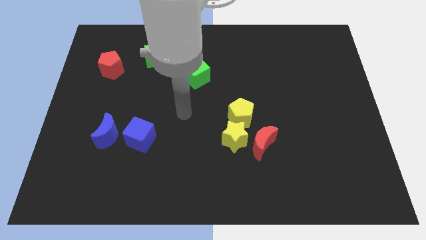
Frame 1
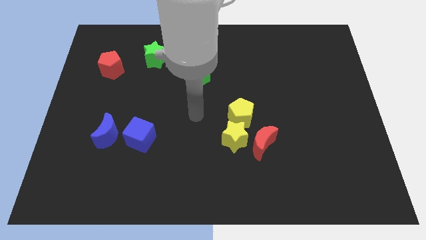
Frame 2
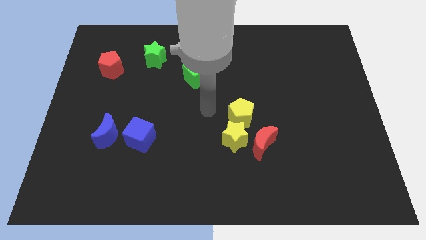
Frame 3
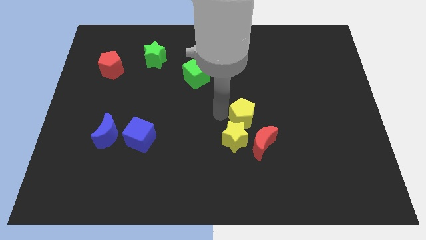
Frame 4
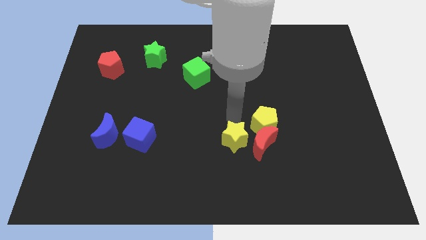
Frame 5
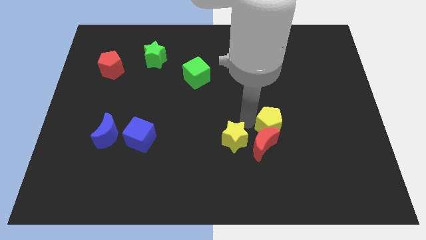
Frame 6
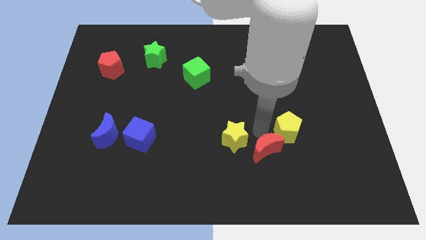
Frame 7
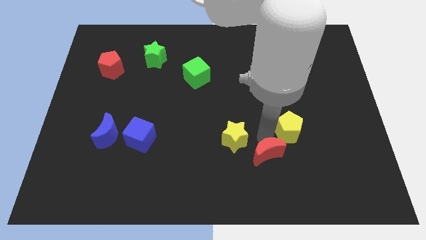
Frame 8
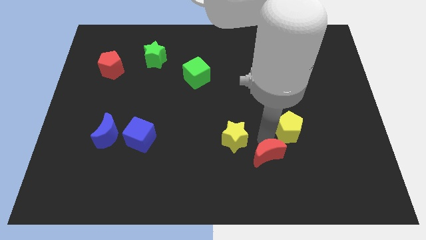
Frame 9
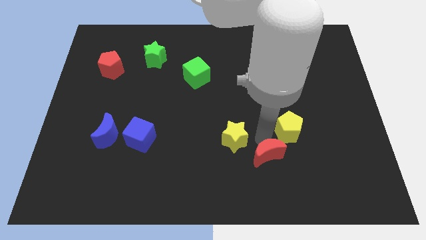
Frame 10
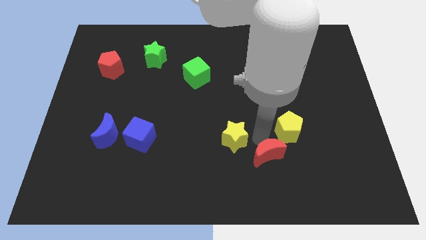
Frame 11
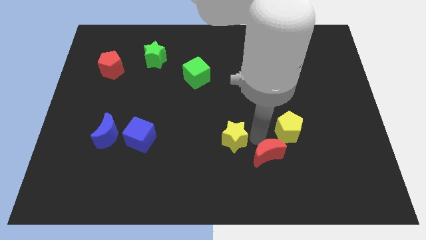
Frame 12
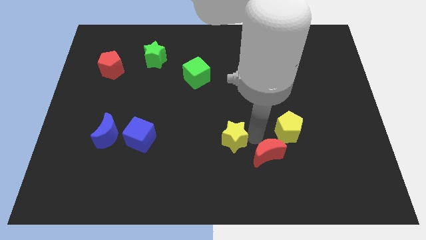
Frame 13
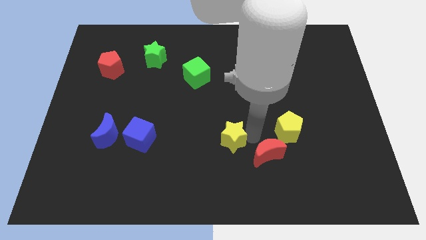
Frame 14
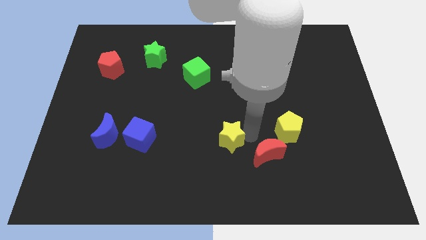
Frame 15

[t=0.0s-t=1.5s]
separate the yellow star from the red moon and yellow pentagon

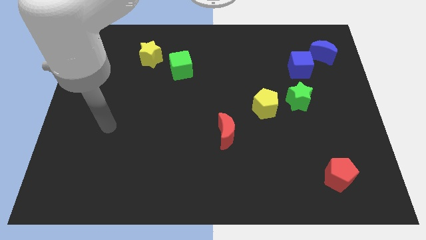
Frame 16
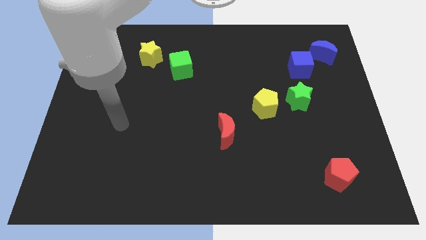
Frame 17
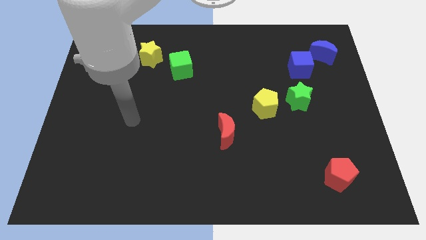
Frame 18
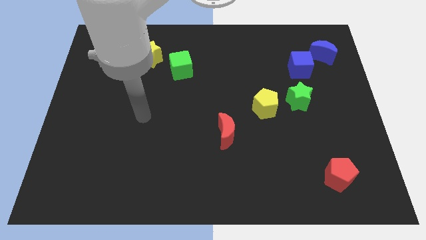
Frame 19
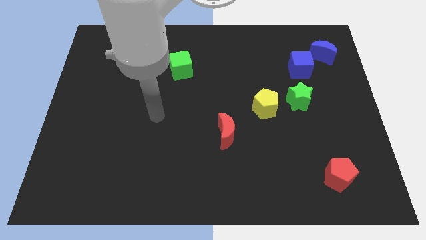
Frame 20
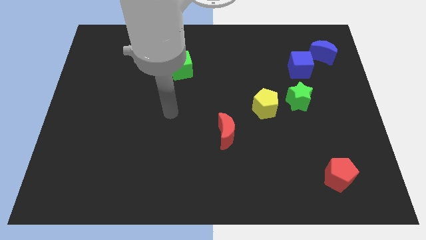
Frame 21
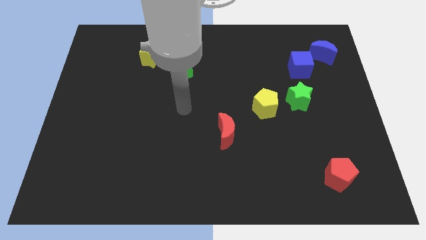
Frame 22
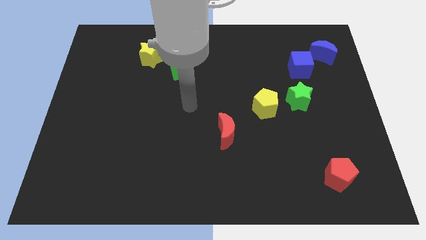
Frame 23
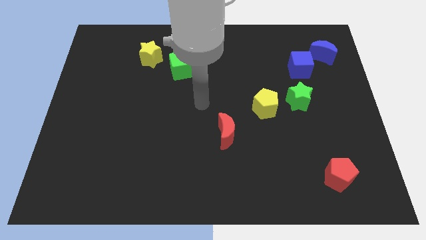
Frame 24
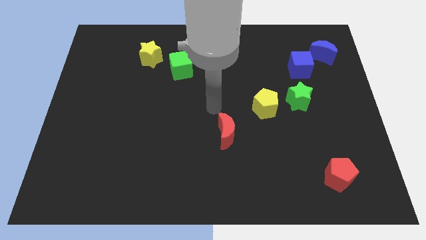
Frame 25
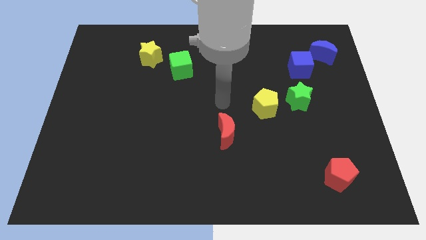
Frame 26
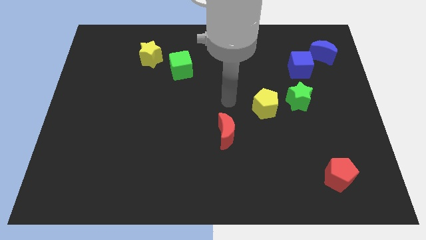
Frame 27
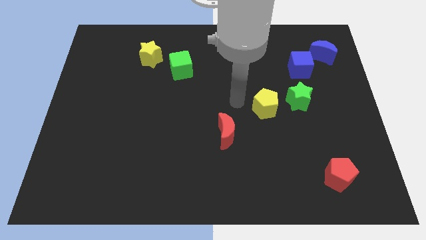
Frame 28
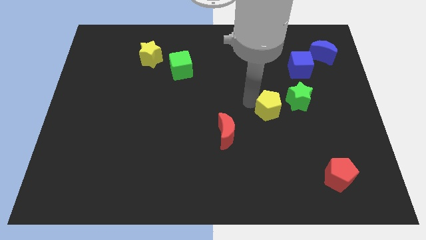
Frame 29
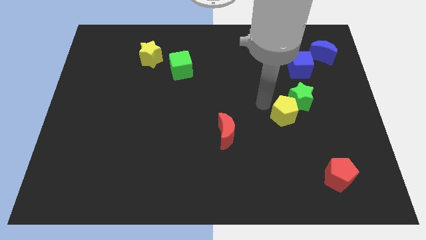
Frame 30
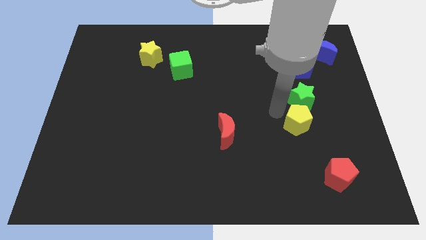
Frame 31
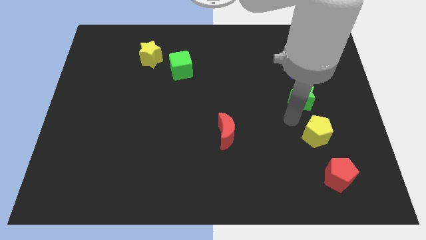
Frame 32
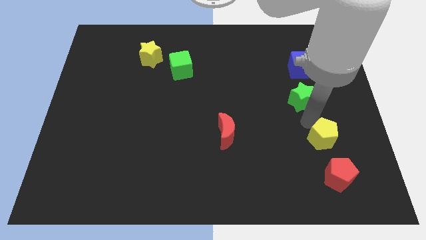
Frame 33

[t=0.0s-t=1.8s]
pull the green star apart from the yellow pentagon

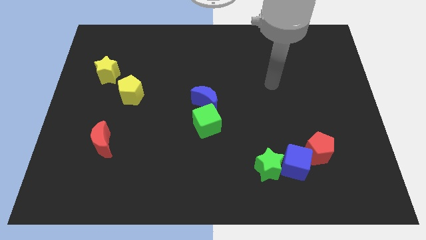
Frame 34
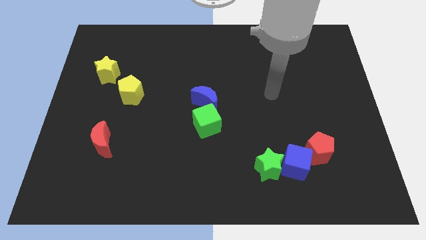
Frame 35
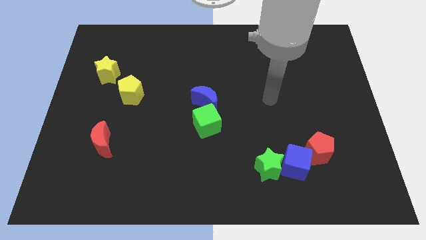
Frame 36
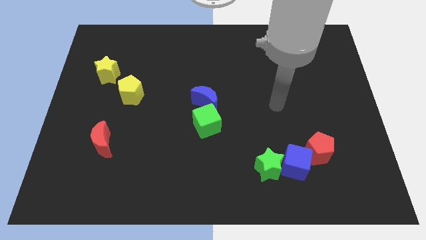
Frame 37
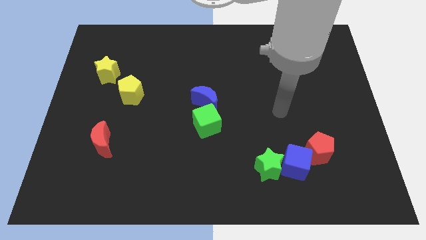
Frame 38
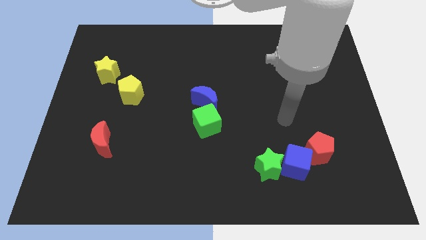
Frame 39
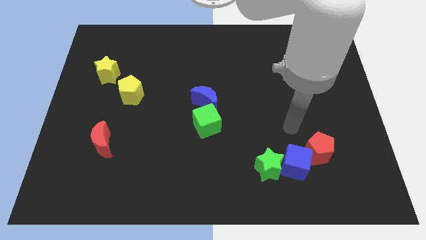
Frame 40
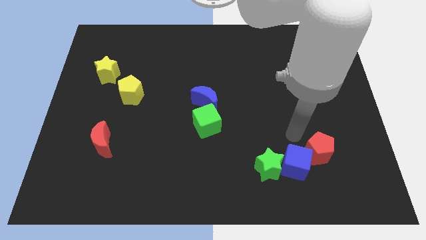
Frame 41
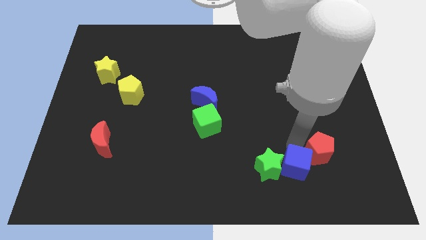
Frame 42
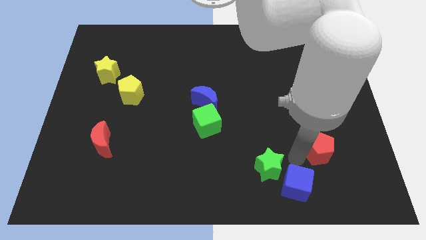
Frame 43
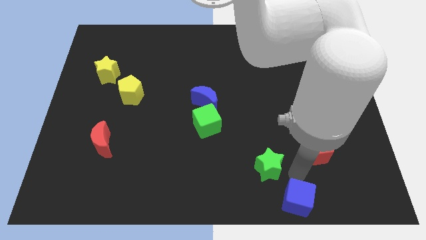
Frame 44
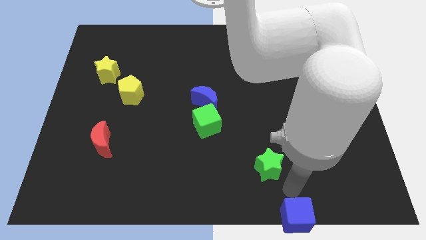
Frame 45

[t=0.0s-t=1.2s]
pull the green star apart from the blue cube

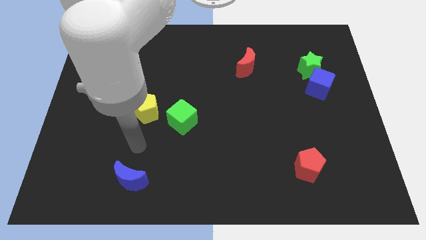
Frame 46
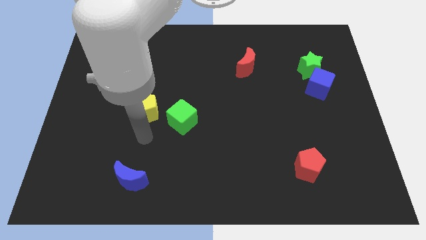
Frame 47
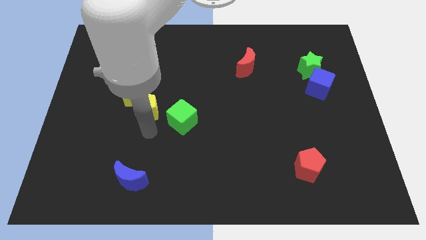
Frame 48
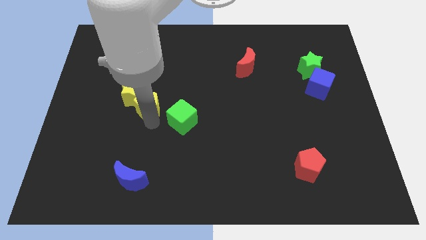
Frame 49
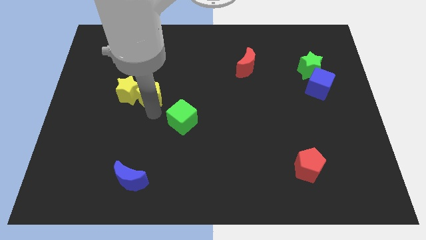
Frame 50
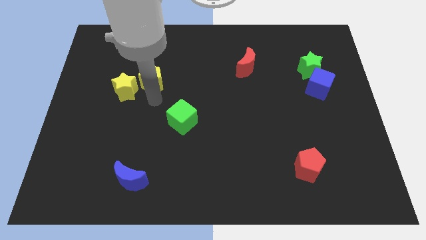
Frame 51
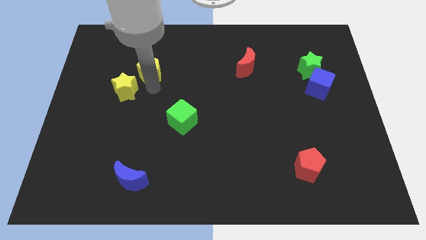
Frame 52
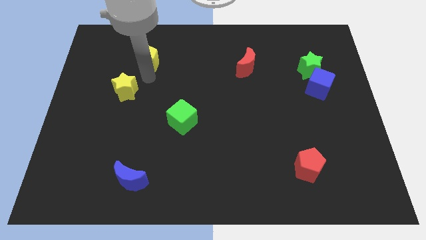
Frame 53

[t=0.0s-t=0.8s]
separate the yellow star from the yellow pentagon

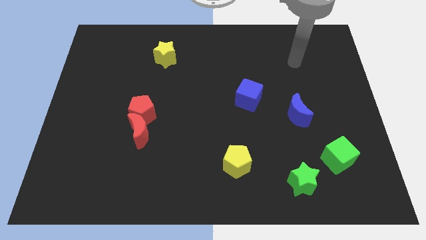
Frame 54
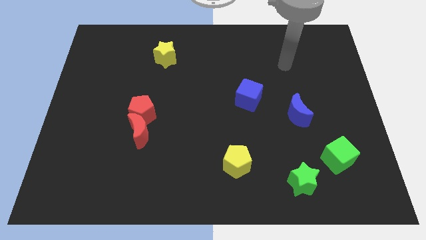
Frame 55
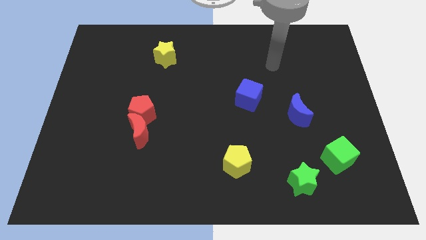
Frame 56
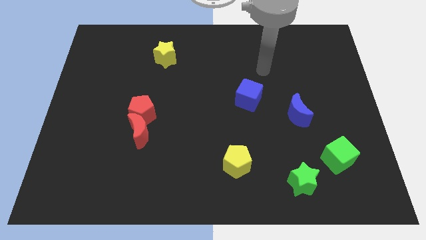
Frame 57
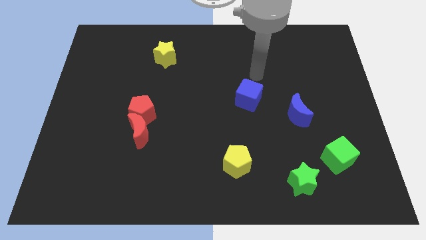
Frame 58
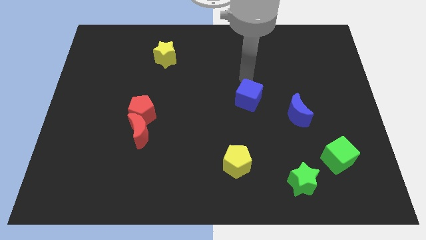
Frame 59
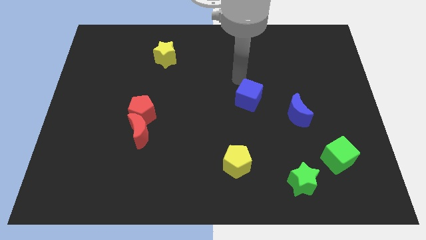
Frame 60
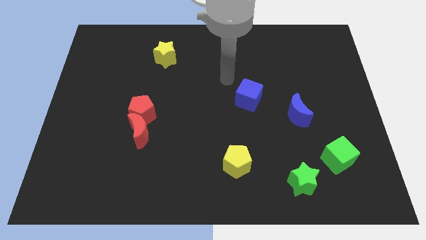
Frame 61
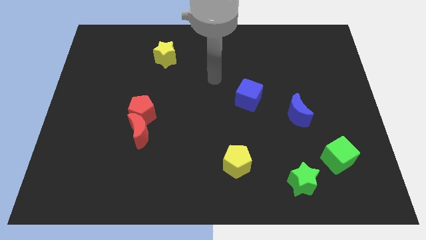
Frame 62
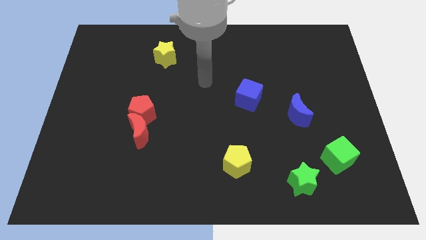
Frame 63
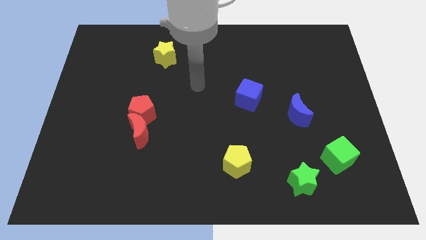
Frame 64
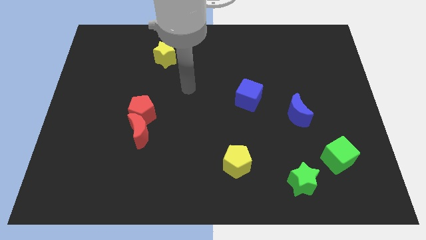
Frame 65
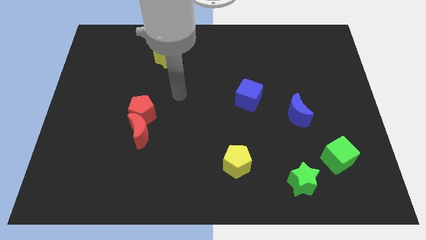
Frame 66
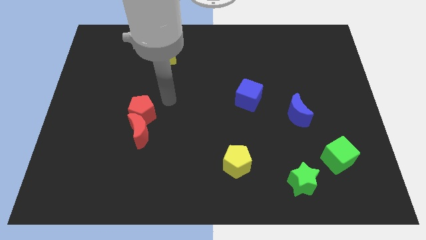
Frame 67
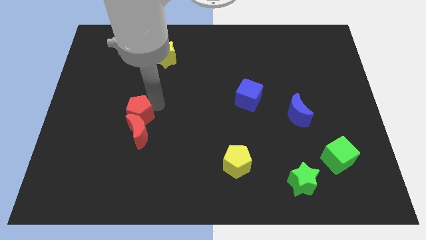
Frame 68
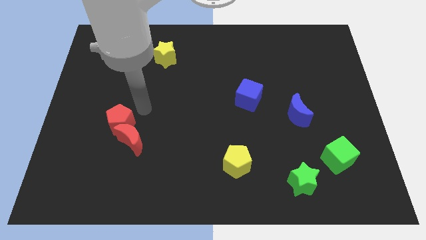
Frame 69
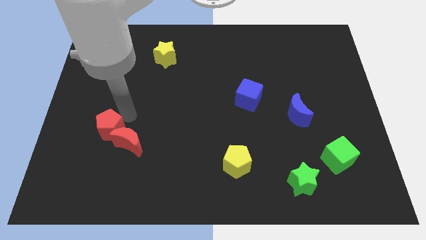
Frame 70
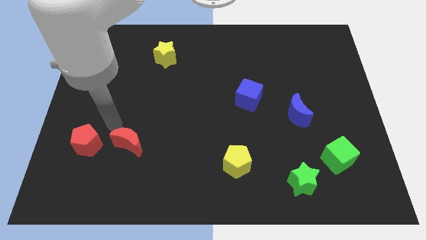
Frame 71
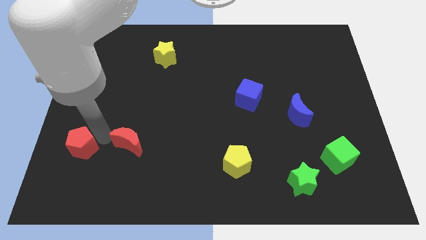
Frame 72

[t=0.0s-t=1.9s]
separate the red moon from the red pentagon

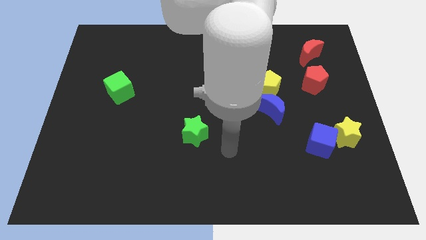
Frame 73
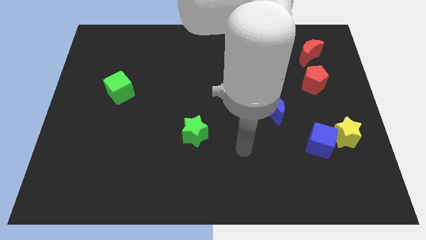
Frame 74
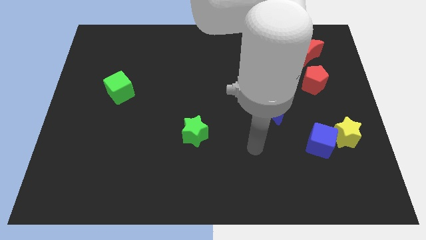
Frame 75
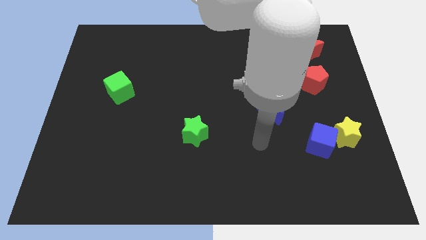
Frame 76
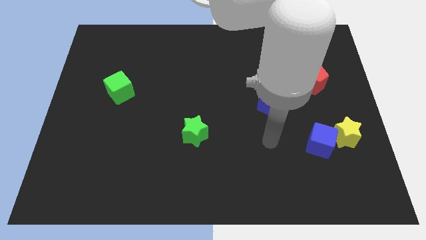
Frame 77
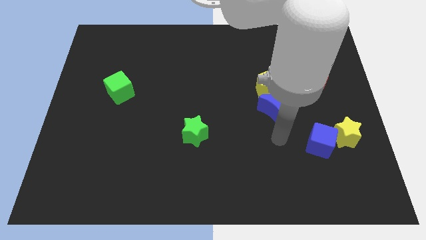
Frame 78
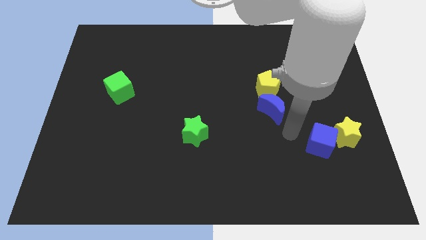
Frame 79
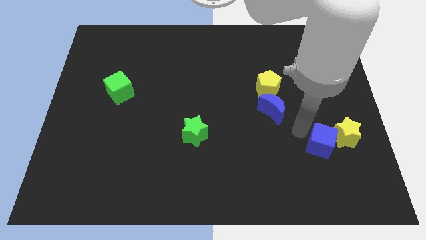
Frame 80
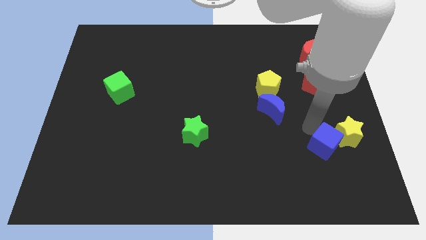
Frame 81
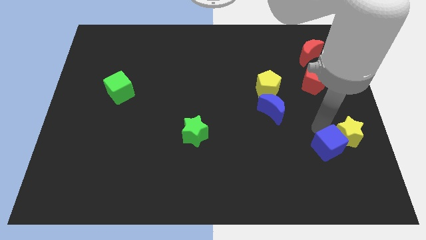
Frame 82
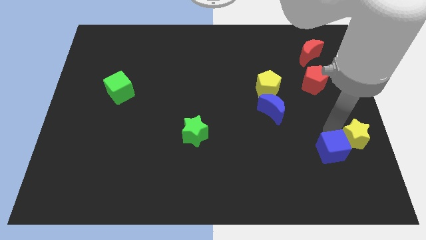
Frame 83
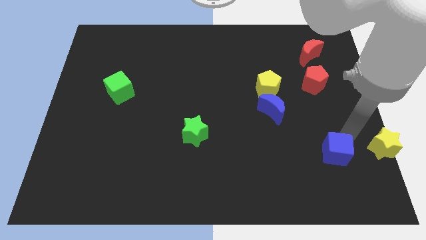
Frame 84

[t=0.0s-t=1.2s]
separate the blue cube from the yellow star

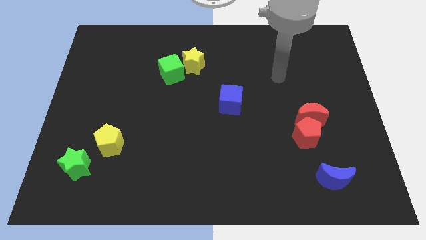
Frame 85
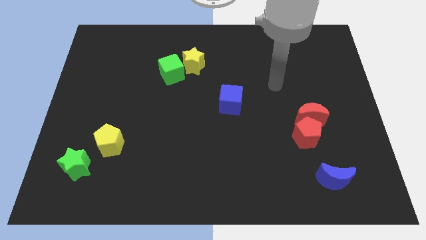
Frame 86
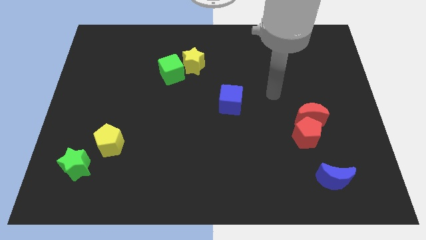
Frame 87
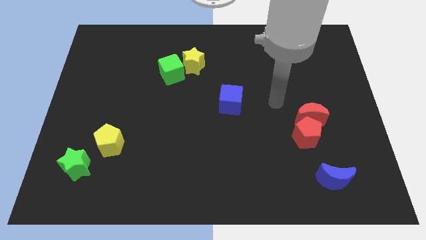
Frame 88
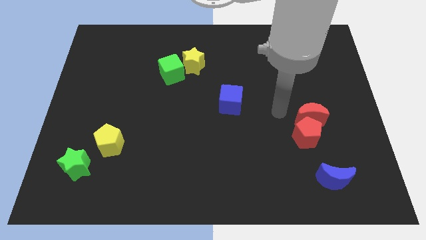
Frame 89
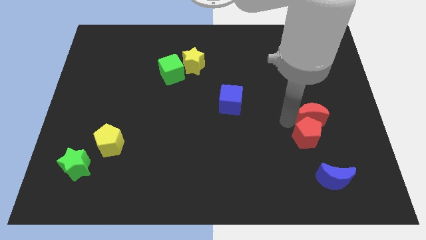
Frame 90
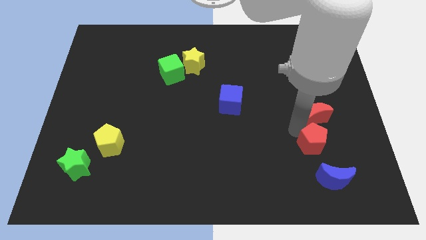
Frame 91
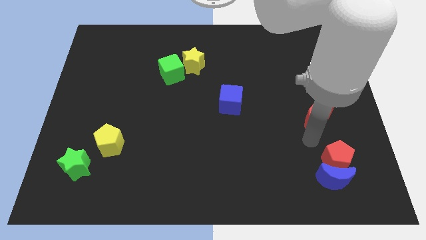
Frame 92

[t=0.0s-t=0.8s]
pull the red moon apart from the red pentagon
